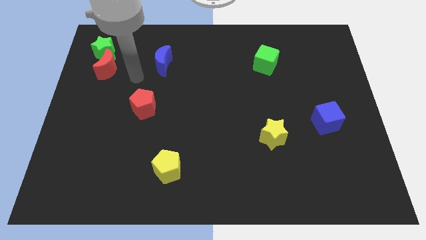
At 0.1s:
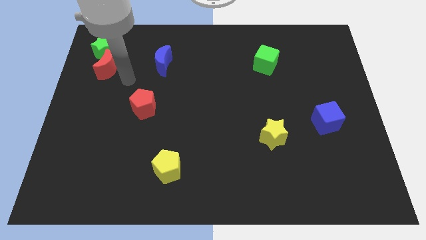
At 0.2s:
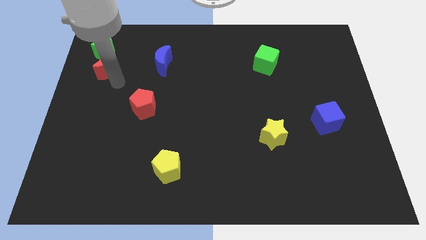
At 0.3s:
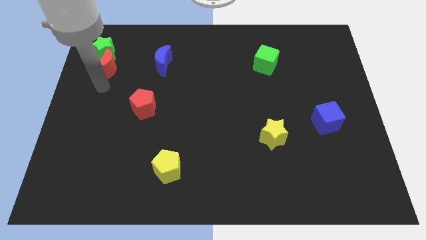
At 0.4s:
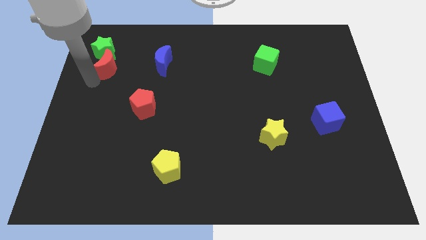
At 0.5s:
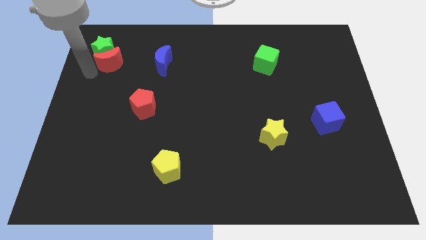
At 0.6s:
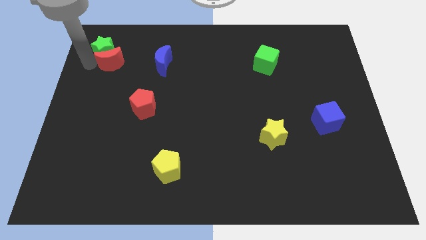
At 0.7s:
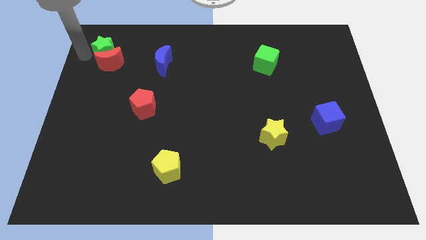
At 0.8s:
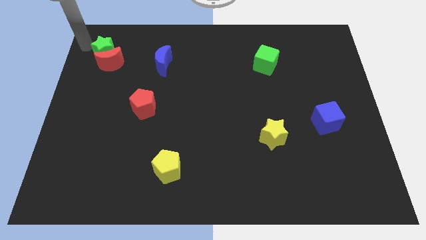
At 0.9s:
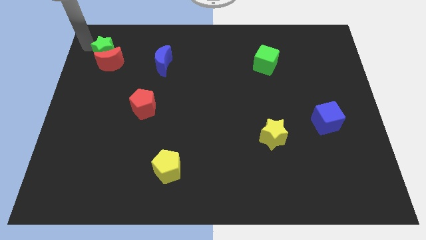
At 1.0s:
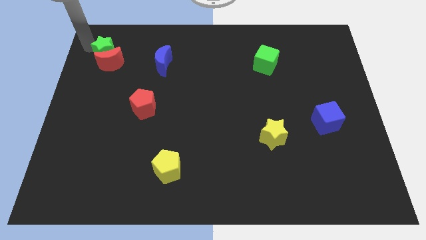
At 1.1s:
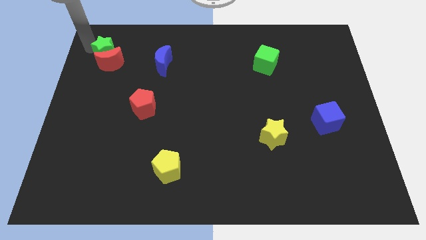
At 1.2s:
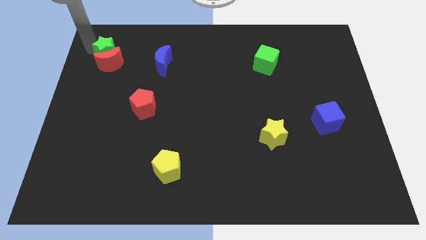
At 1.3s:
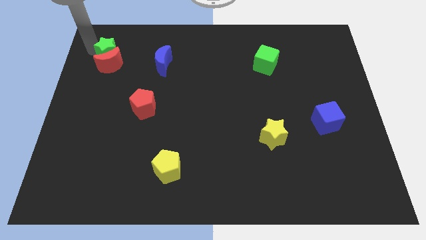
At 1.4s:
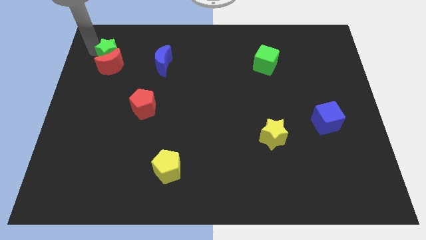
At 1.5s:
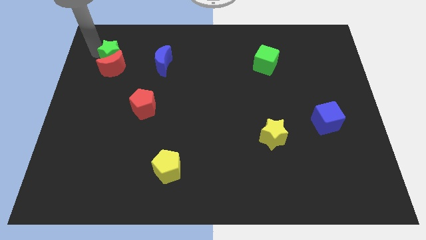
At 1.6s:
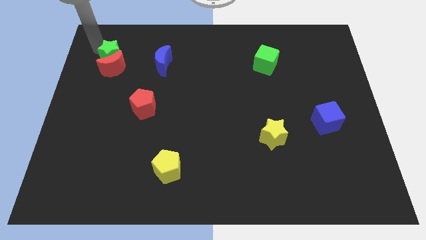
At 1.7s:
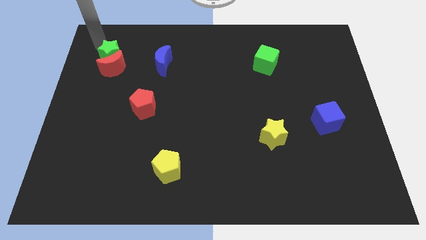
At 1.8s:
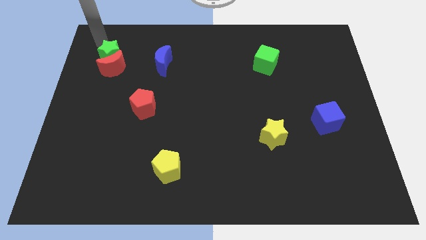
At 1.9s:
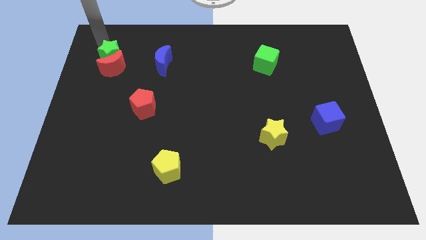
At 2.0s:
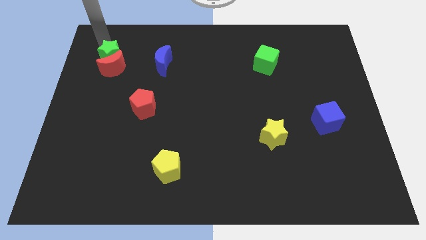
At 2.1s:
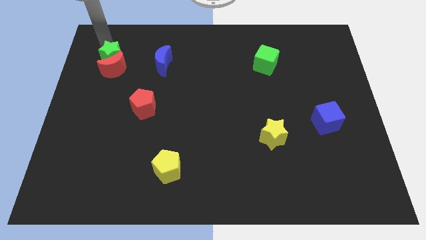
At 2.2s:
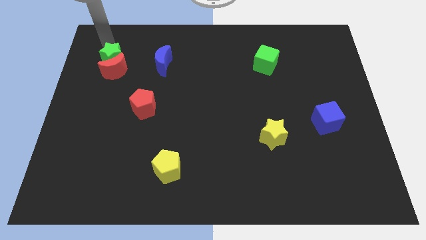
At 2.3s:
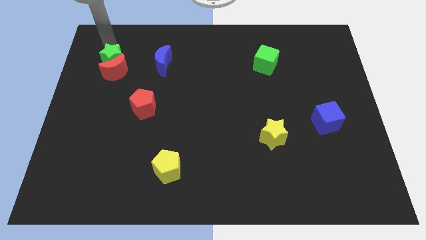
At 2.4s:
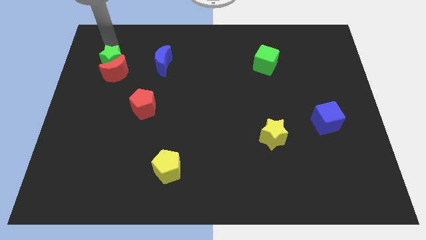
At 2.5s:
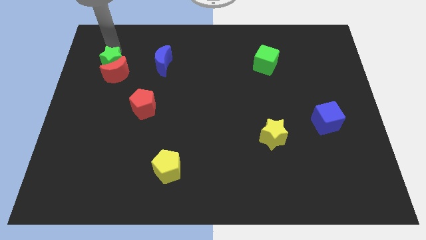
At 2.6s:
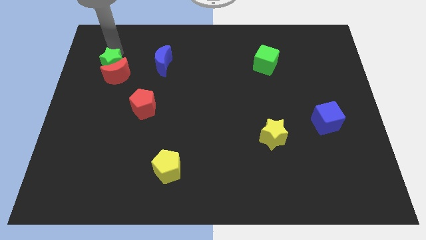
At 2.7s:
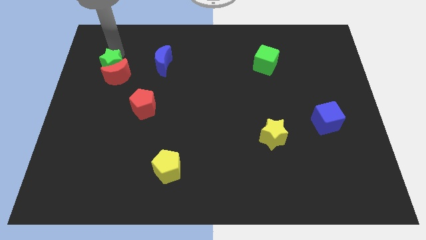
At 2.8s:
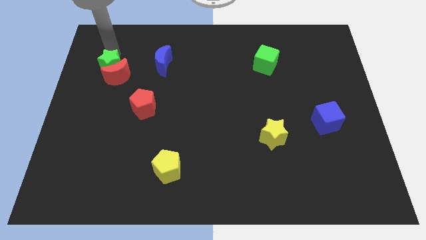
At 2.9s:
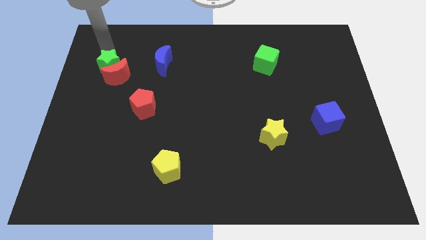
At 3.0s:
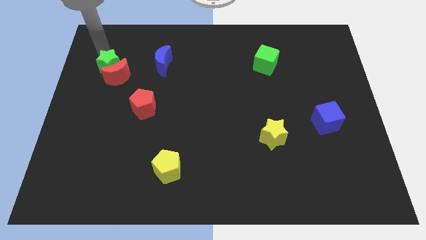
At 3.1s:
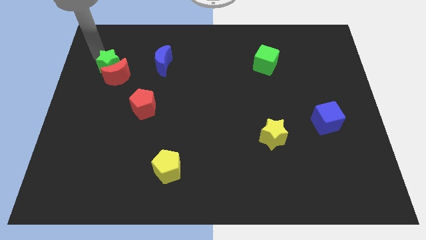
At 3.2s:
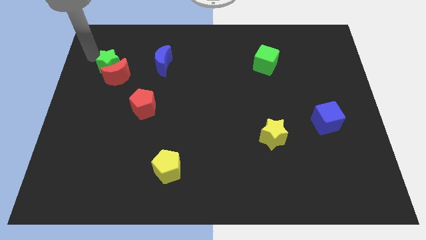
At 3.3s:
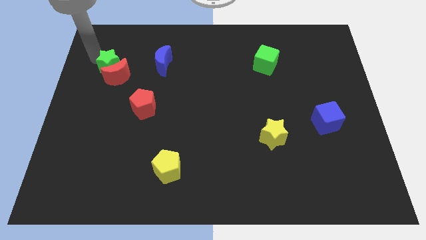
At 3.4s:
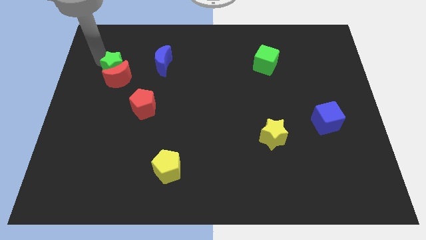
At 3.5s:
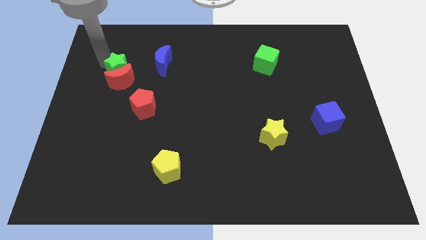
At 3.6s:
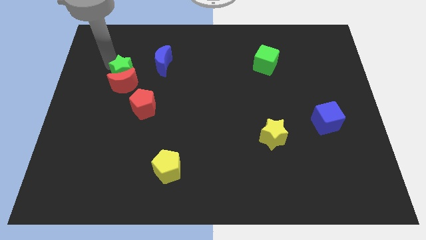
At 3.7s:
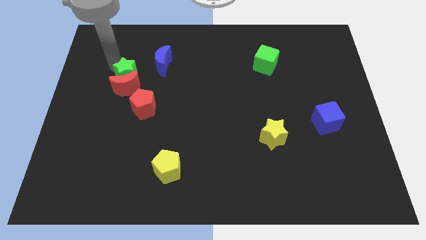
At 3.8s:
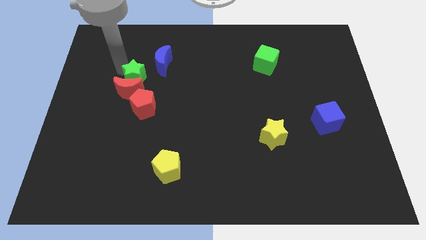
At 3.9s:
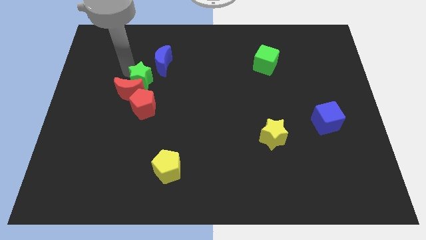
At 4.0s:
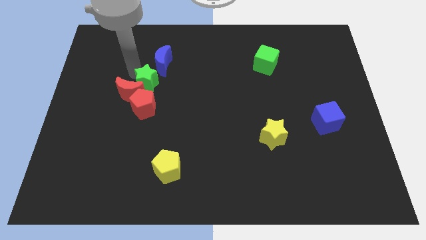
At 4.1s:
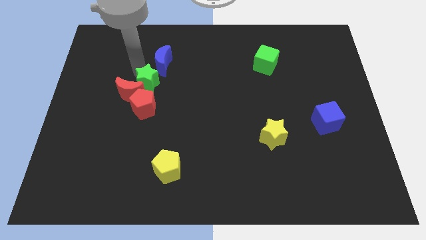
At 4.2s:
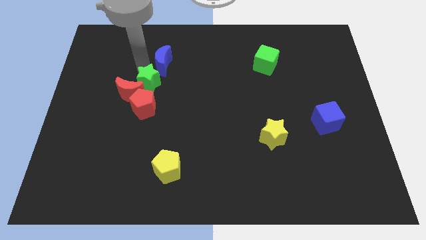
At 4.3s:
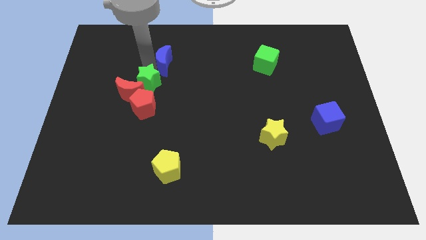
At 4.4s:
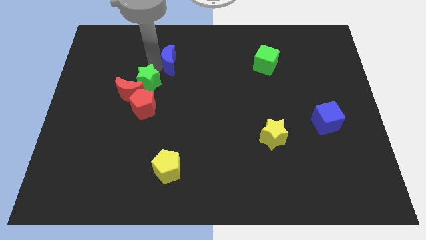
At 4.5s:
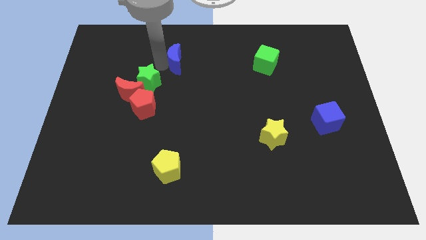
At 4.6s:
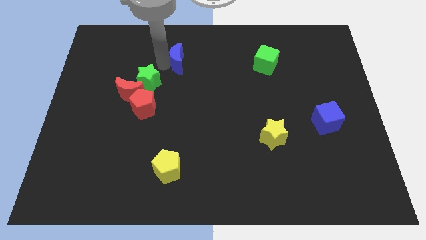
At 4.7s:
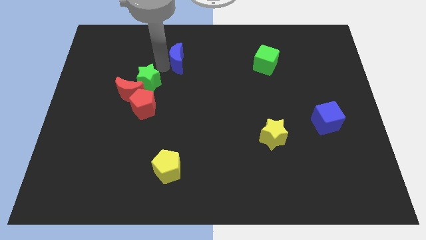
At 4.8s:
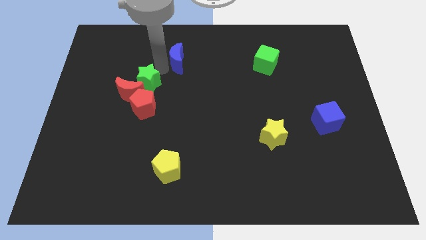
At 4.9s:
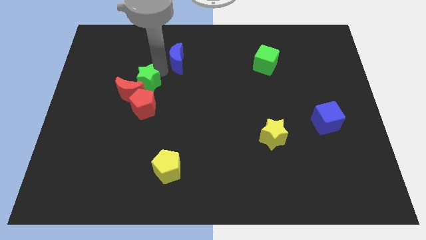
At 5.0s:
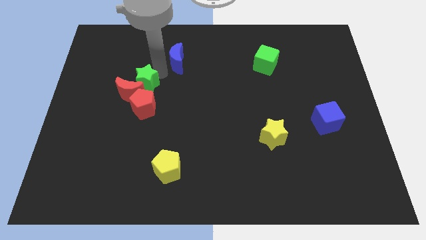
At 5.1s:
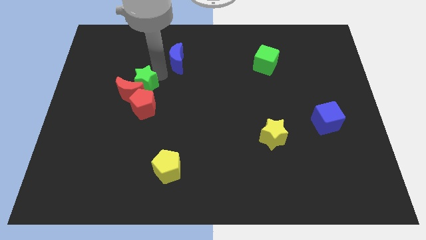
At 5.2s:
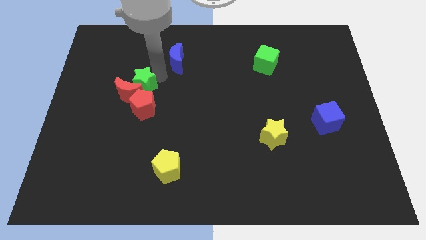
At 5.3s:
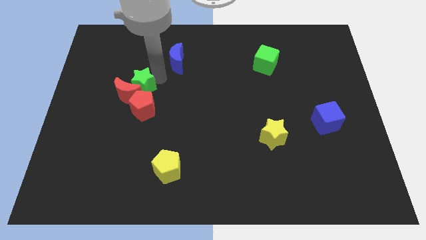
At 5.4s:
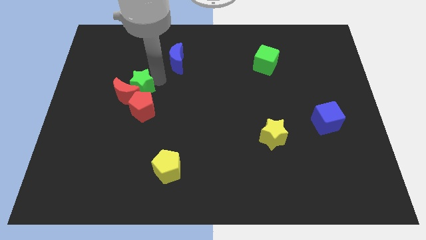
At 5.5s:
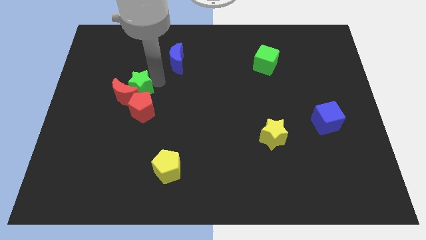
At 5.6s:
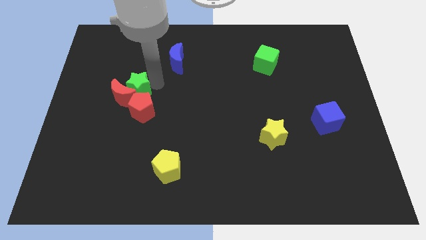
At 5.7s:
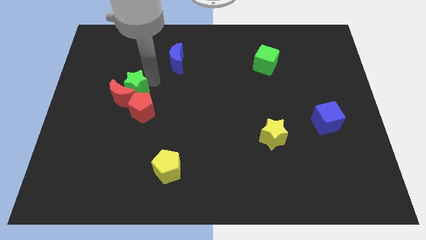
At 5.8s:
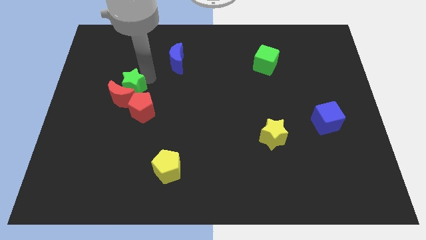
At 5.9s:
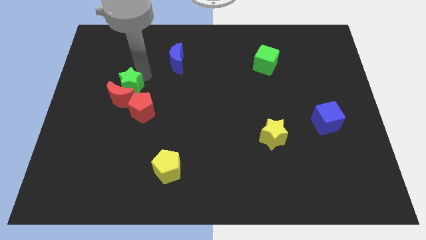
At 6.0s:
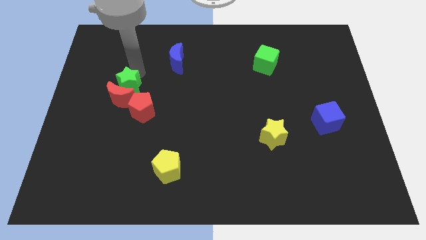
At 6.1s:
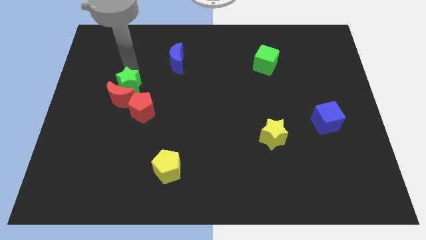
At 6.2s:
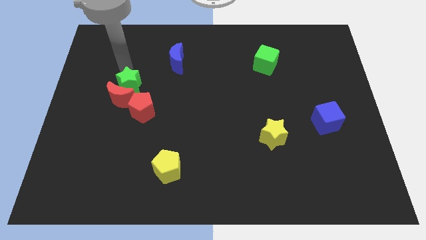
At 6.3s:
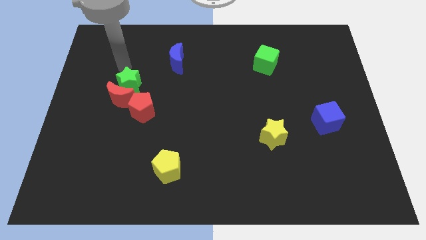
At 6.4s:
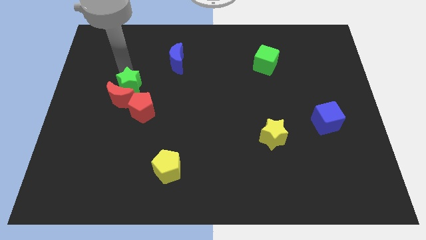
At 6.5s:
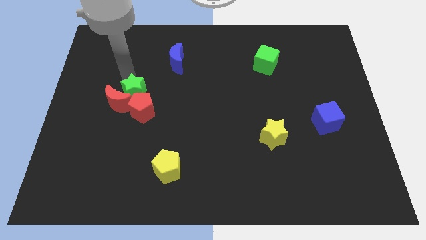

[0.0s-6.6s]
move the green star close to the red pentagon

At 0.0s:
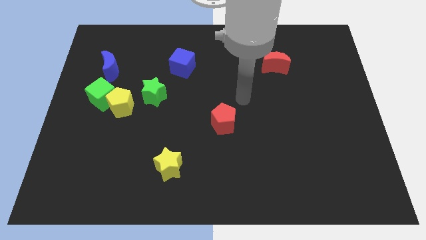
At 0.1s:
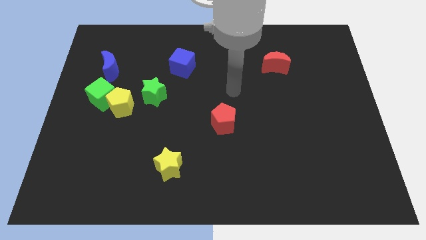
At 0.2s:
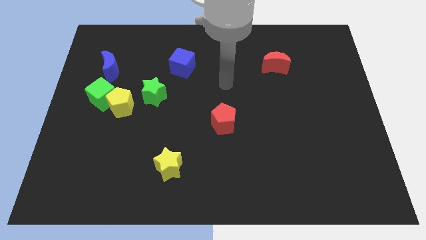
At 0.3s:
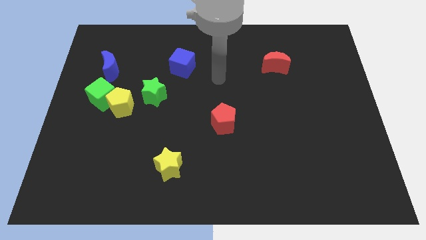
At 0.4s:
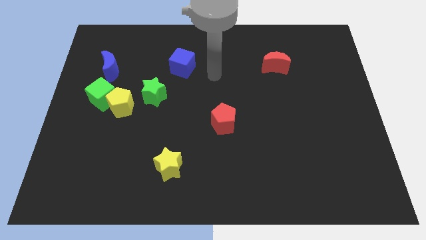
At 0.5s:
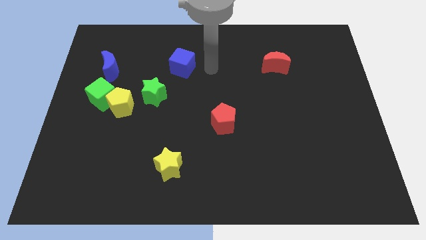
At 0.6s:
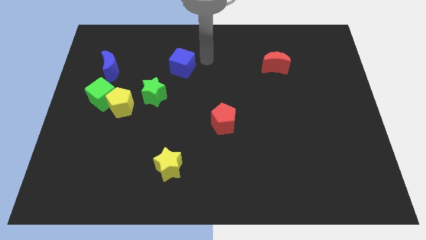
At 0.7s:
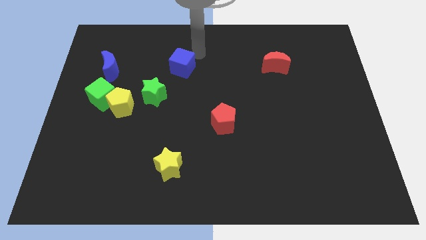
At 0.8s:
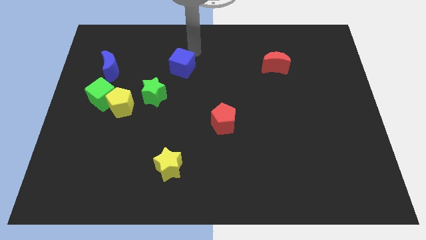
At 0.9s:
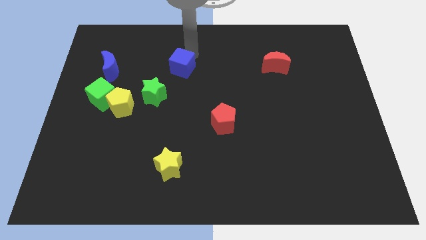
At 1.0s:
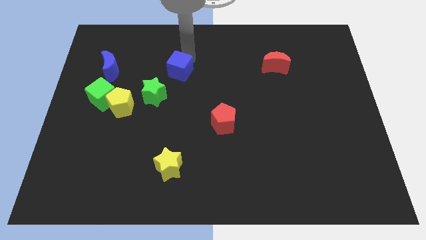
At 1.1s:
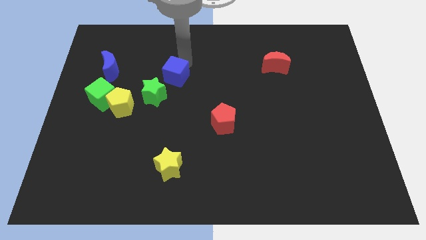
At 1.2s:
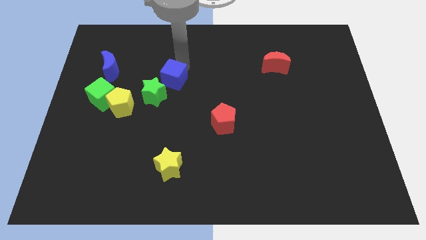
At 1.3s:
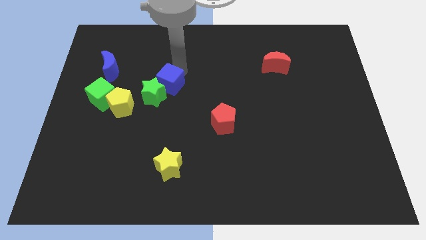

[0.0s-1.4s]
slide the blue cube towards the green star
